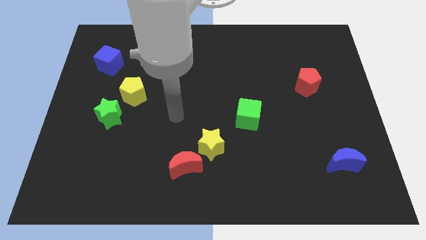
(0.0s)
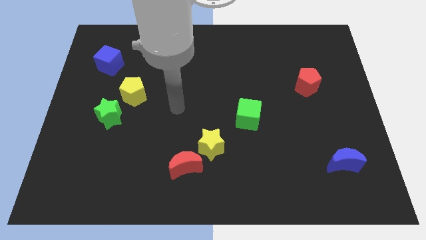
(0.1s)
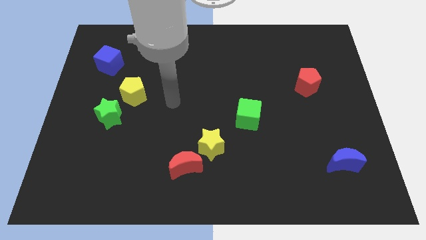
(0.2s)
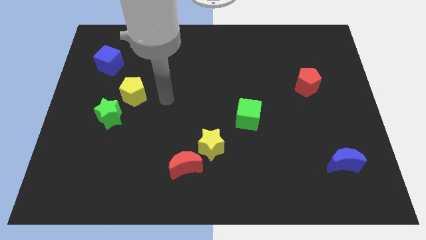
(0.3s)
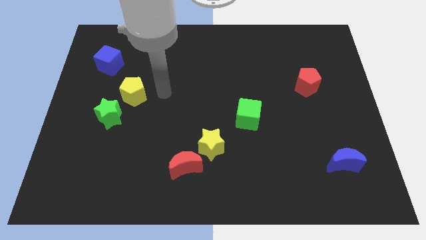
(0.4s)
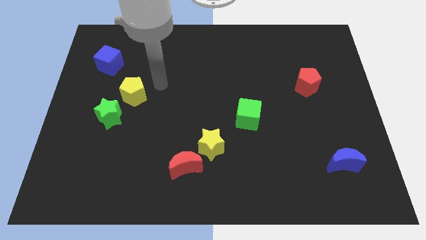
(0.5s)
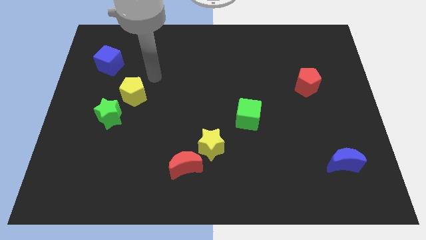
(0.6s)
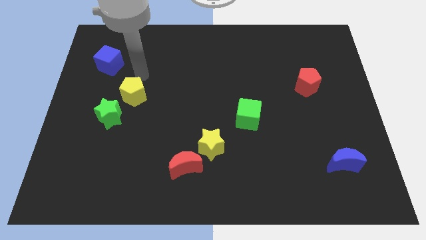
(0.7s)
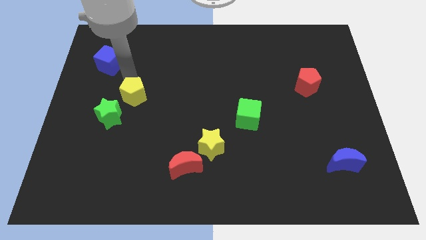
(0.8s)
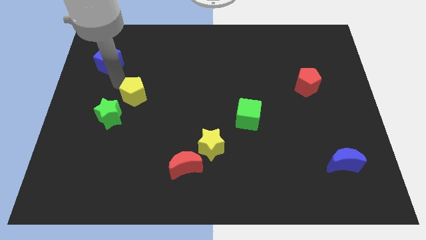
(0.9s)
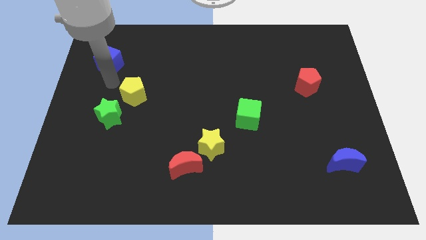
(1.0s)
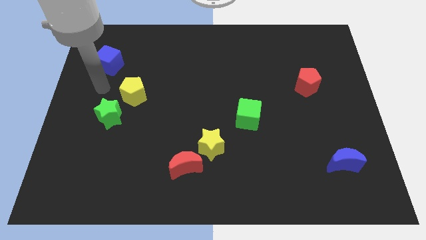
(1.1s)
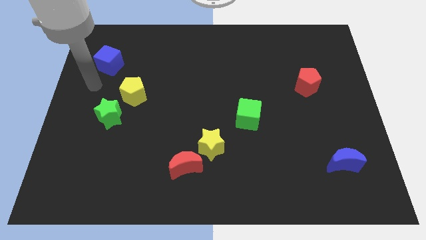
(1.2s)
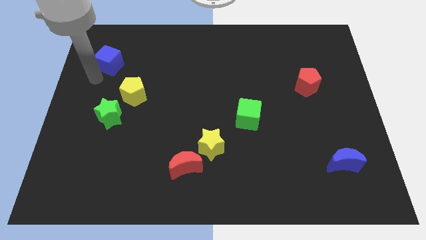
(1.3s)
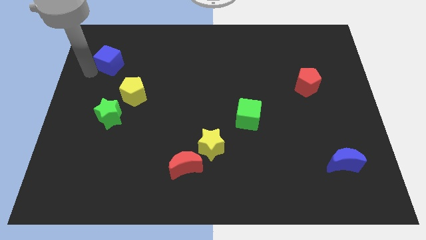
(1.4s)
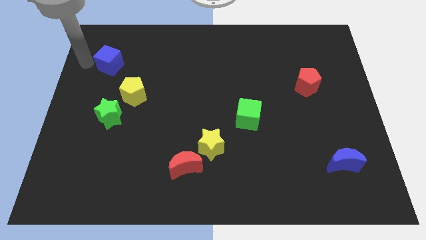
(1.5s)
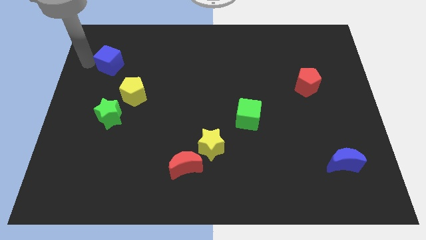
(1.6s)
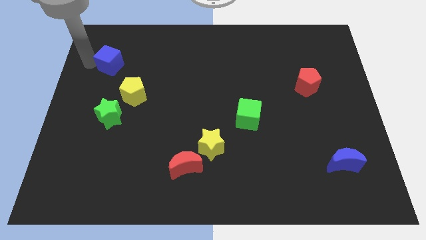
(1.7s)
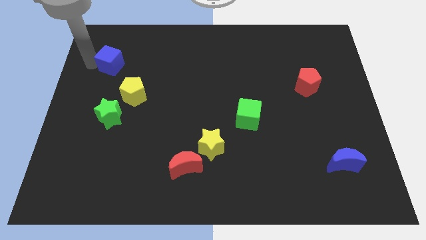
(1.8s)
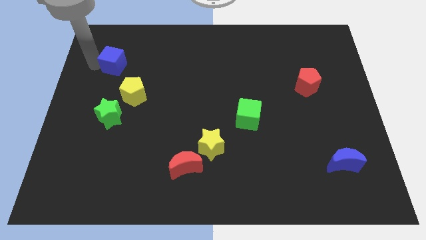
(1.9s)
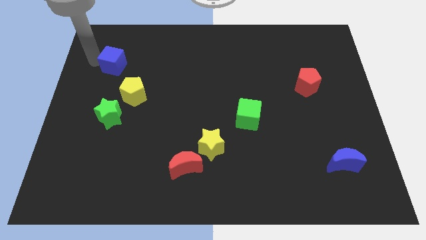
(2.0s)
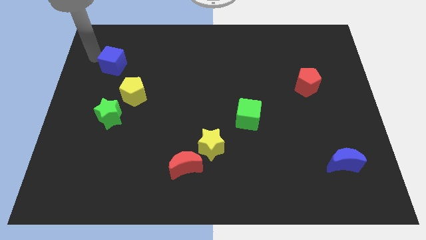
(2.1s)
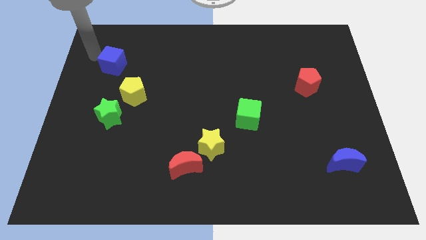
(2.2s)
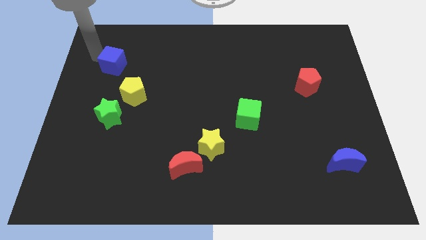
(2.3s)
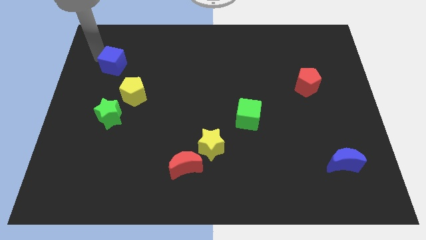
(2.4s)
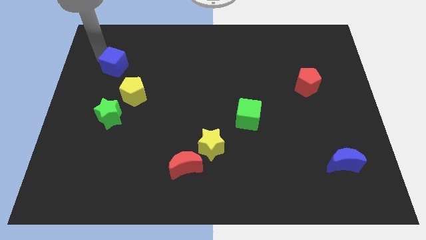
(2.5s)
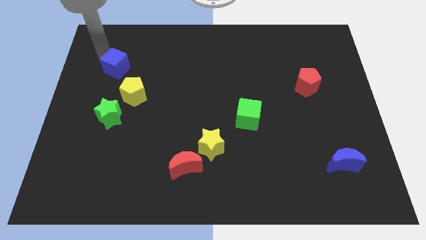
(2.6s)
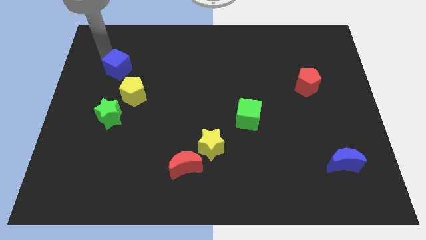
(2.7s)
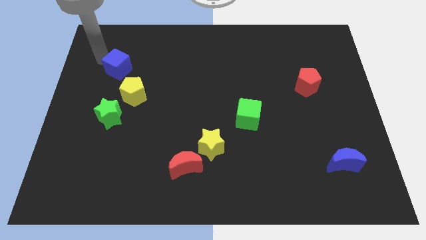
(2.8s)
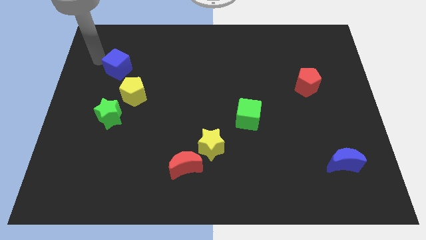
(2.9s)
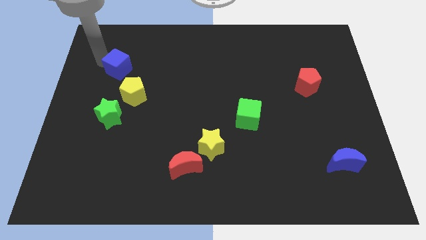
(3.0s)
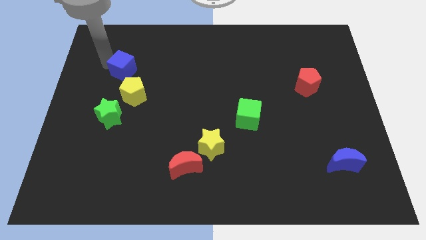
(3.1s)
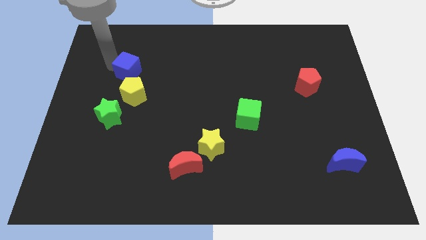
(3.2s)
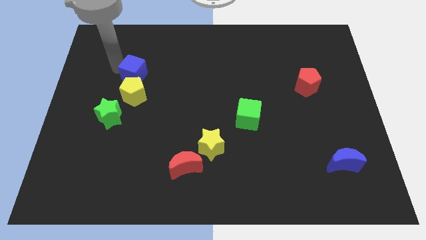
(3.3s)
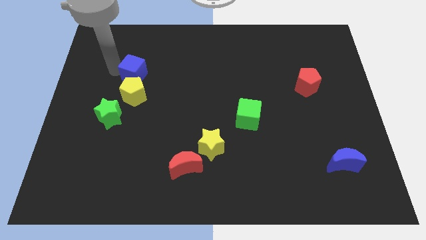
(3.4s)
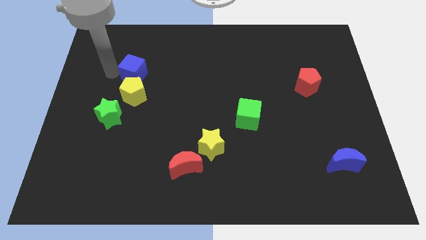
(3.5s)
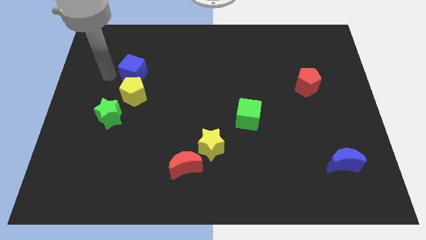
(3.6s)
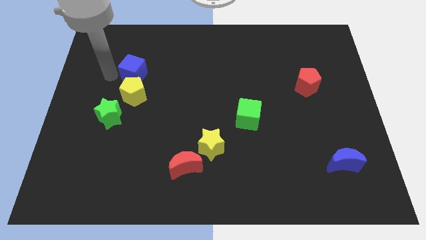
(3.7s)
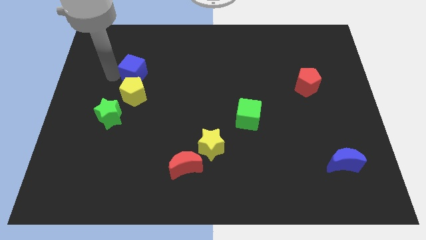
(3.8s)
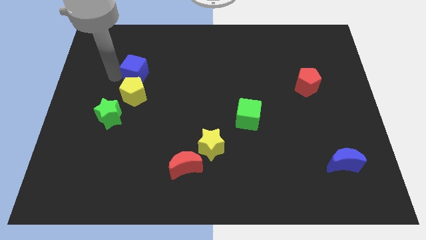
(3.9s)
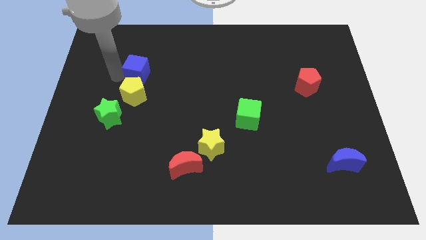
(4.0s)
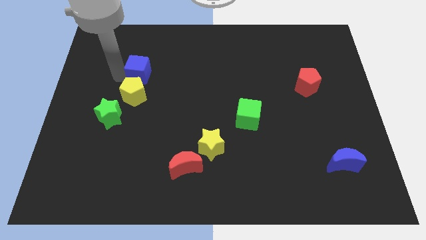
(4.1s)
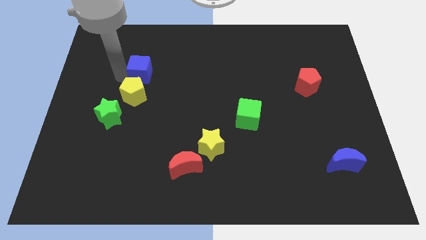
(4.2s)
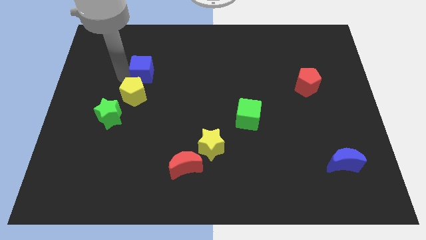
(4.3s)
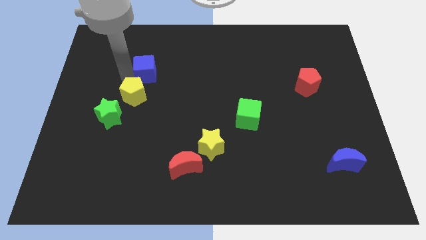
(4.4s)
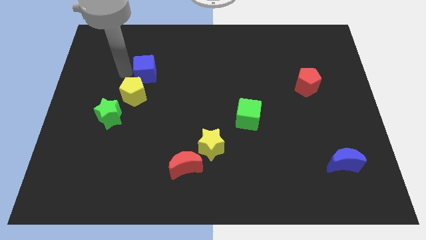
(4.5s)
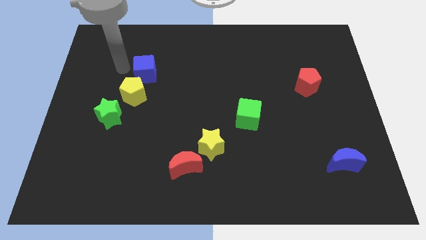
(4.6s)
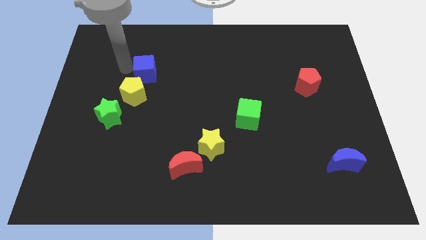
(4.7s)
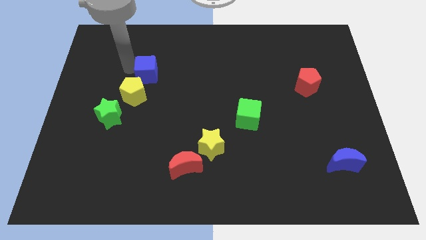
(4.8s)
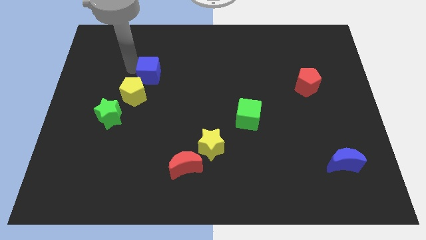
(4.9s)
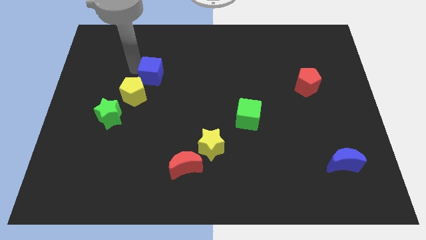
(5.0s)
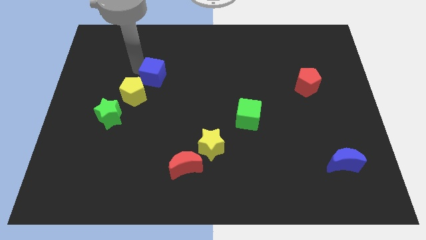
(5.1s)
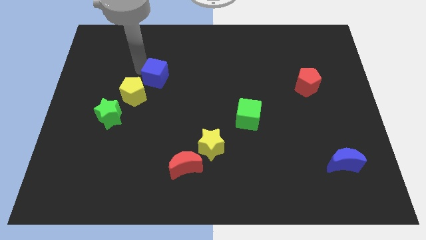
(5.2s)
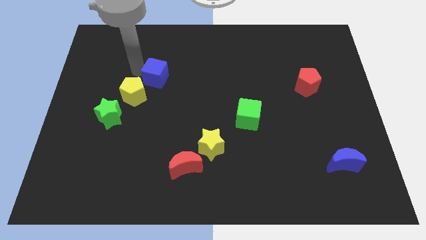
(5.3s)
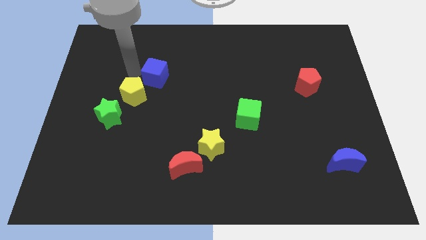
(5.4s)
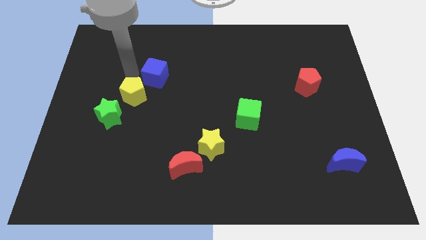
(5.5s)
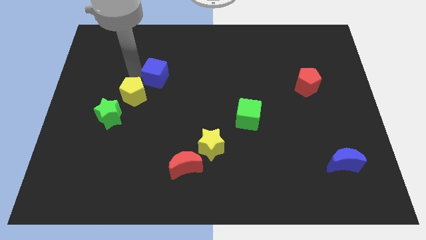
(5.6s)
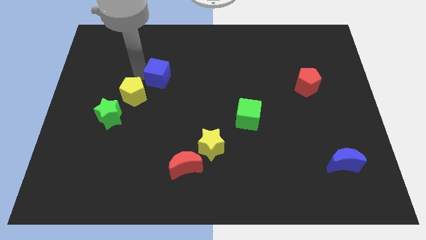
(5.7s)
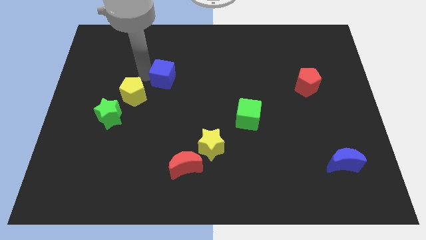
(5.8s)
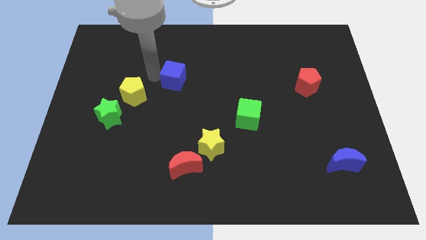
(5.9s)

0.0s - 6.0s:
push the blue cube to the center

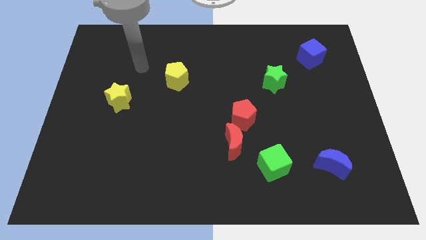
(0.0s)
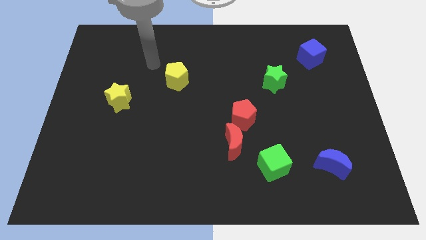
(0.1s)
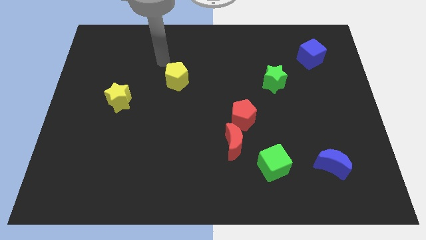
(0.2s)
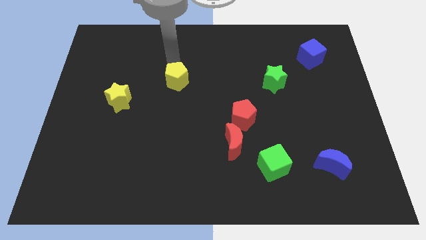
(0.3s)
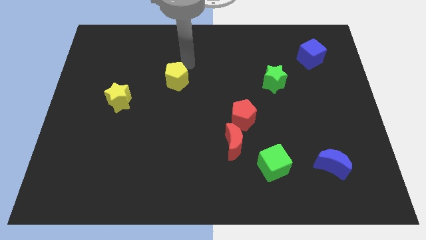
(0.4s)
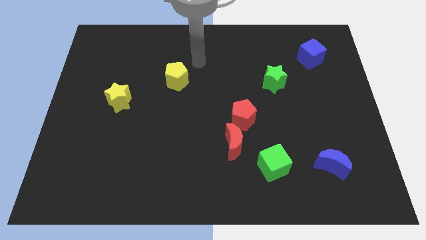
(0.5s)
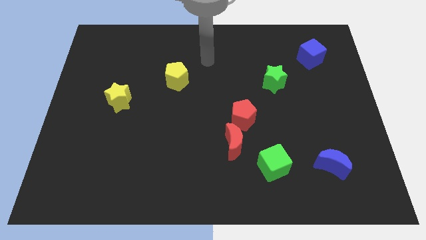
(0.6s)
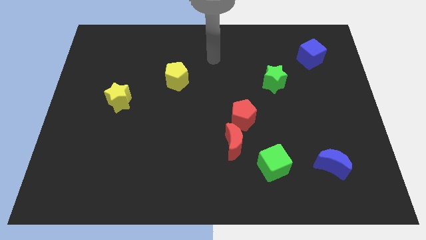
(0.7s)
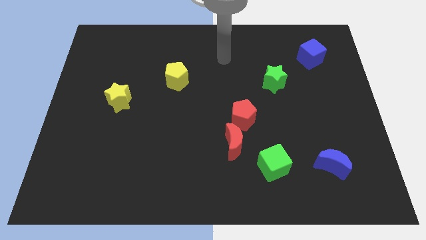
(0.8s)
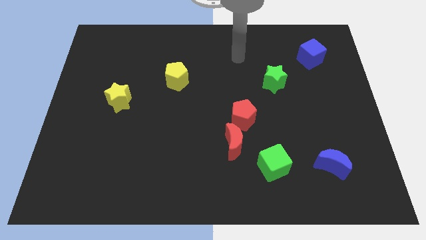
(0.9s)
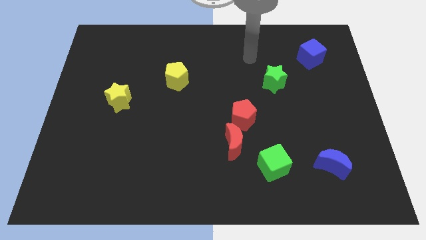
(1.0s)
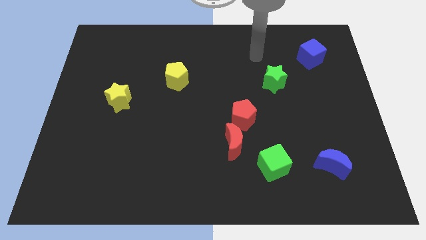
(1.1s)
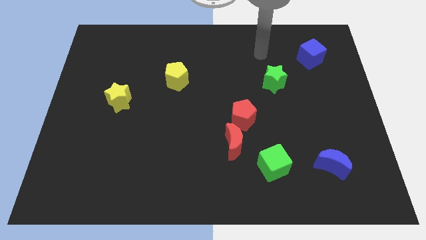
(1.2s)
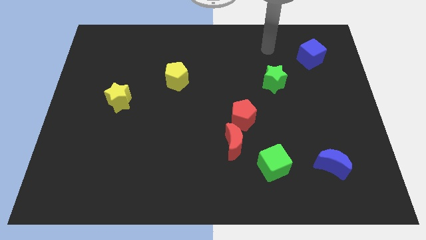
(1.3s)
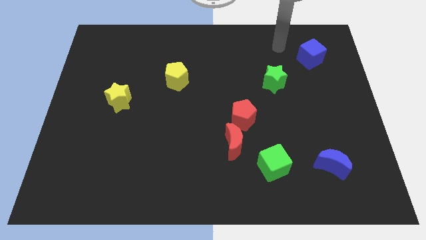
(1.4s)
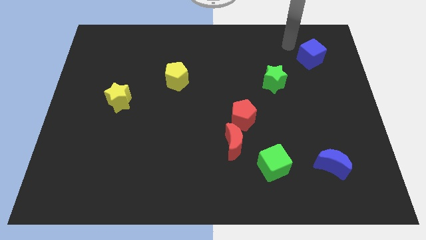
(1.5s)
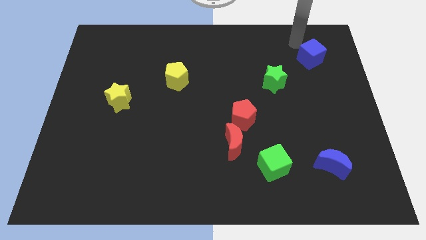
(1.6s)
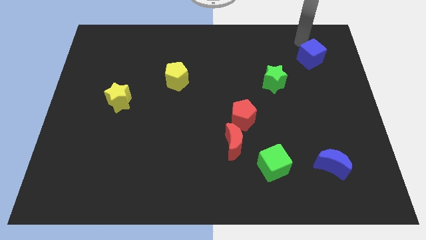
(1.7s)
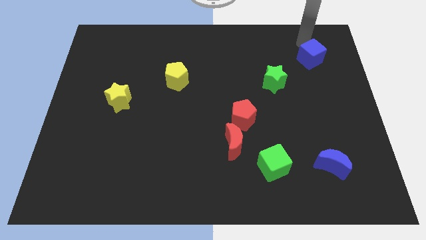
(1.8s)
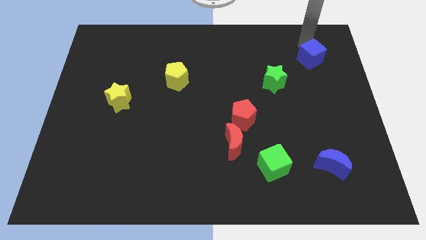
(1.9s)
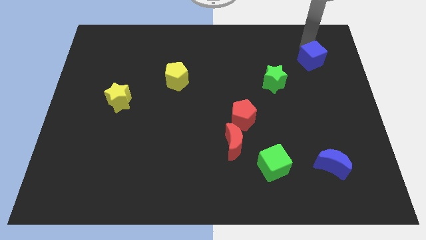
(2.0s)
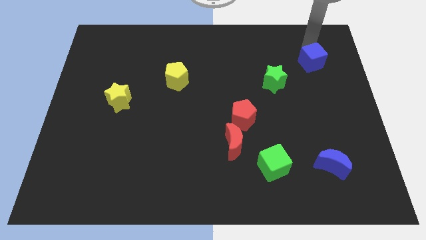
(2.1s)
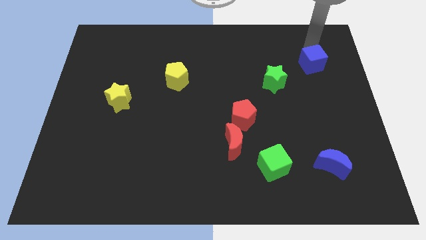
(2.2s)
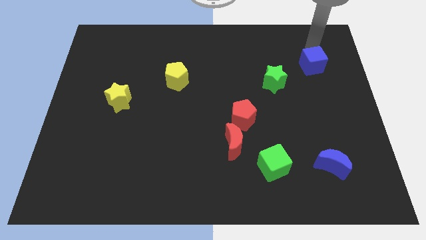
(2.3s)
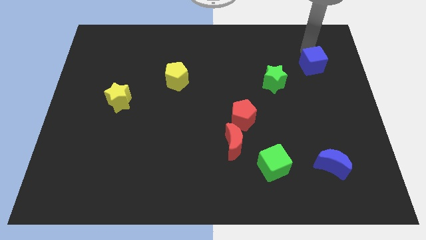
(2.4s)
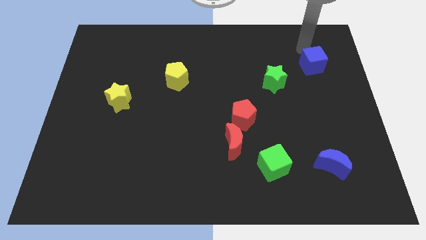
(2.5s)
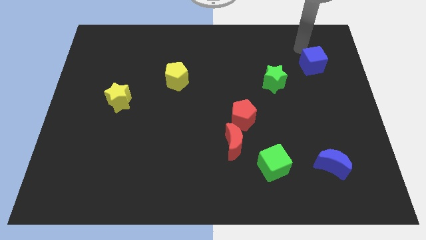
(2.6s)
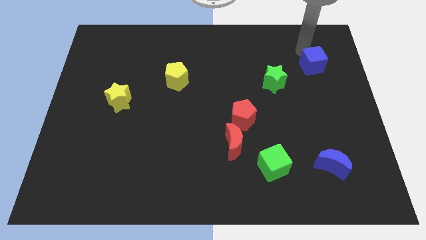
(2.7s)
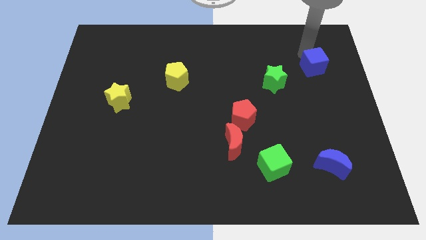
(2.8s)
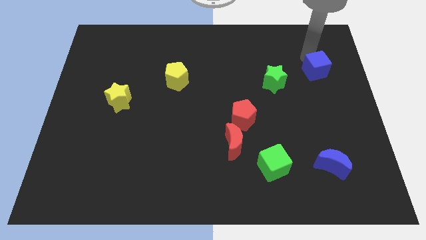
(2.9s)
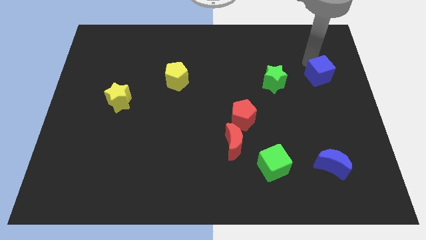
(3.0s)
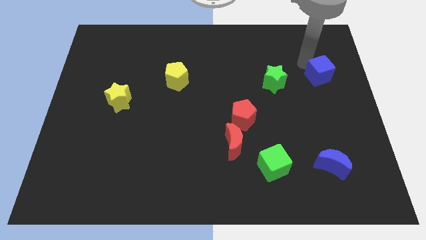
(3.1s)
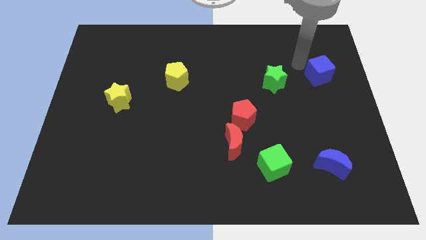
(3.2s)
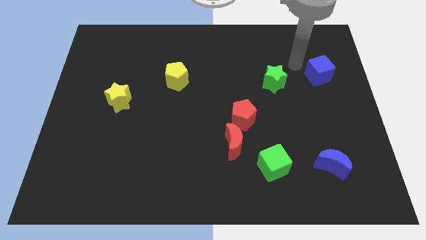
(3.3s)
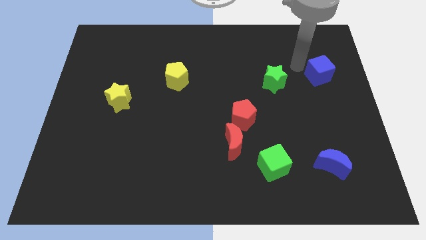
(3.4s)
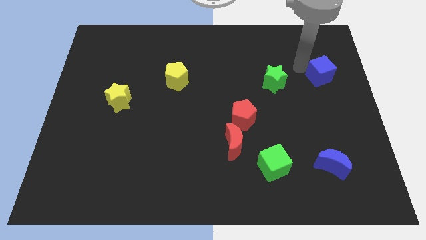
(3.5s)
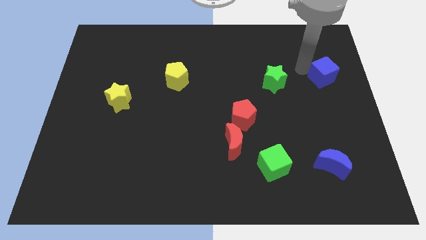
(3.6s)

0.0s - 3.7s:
move the blue cube to the right side
